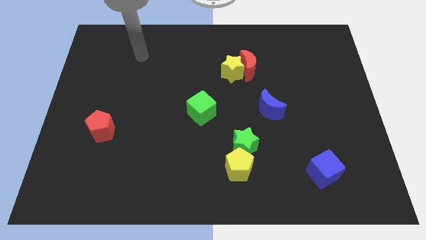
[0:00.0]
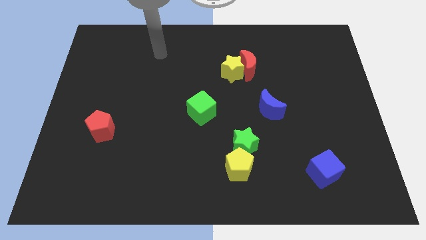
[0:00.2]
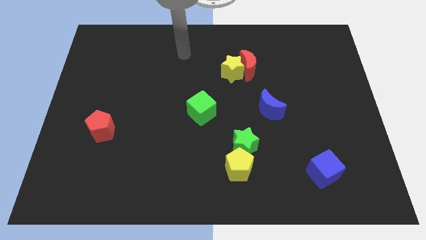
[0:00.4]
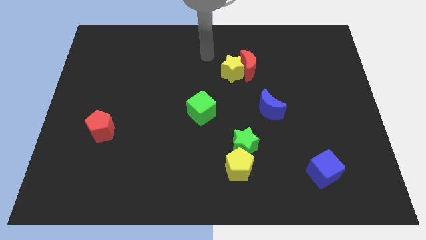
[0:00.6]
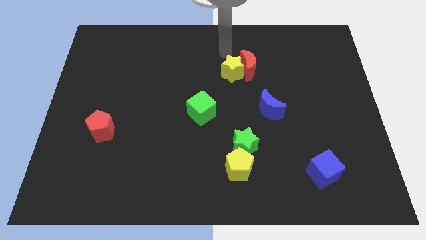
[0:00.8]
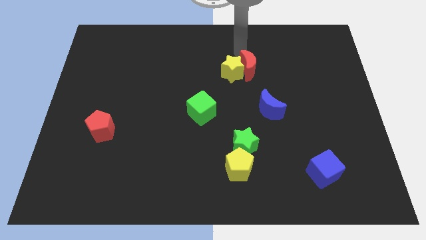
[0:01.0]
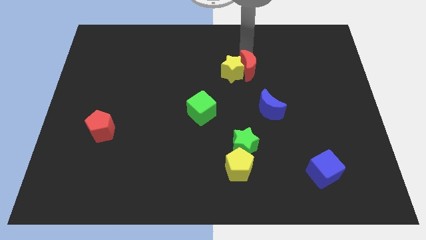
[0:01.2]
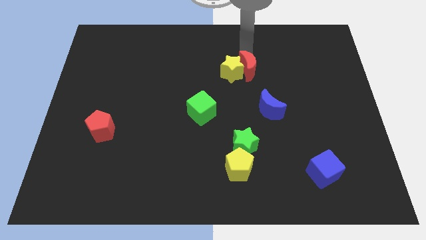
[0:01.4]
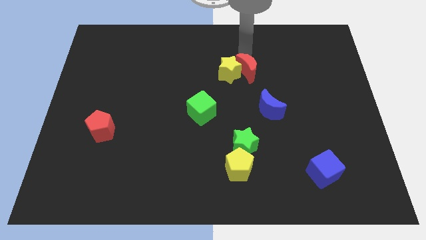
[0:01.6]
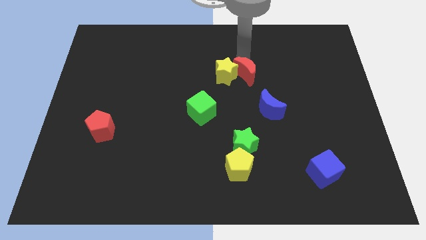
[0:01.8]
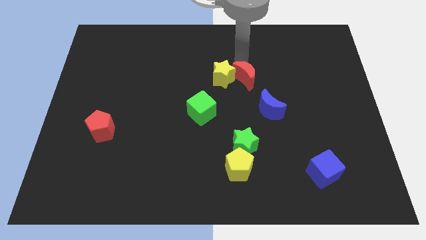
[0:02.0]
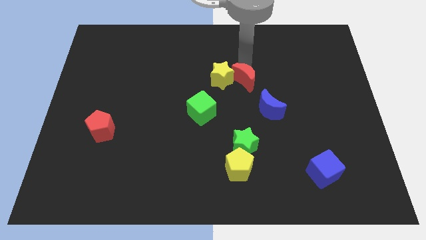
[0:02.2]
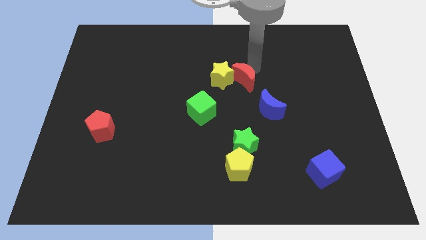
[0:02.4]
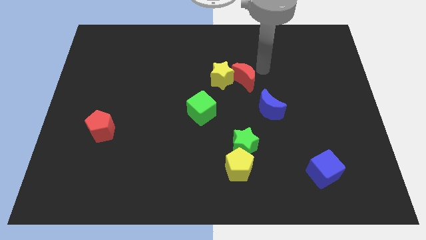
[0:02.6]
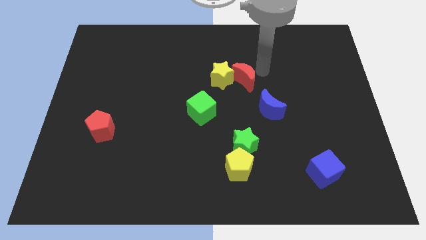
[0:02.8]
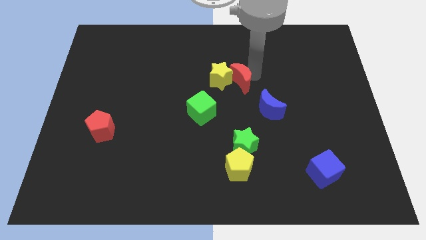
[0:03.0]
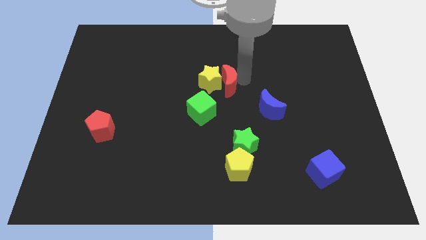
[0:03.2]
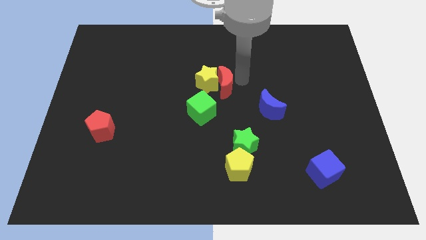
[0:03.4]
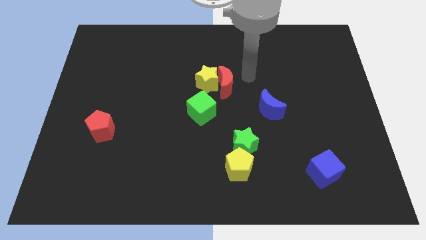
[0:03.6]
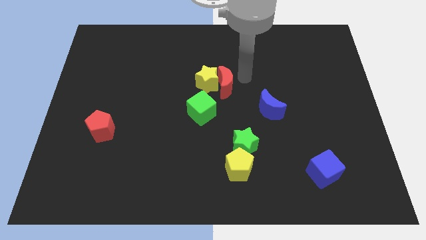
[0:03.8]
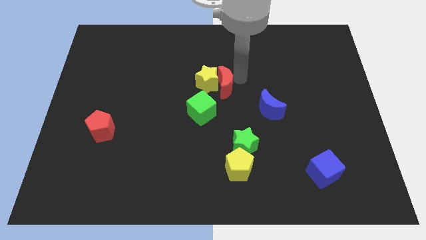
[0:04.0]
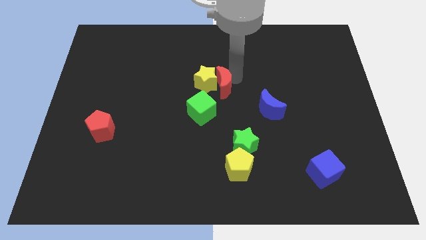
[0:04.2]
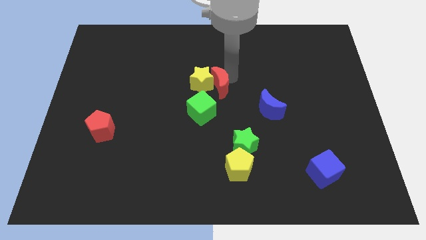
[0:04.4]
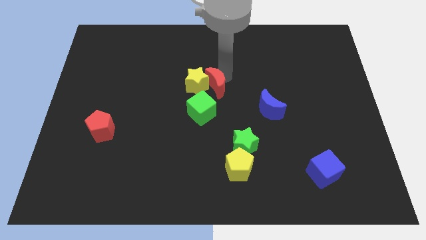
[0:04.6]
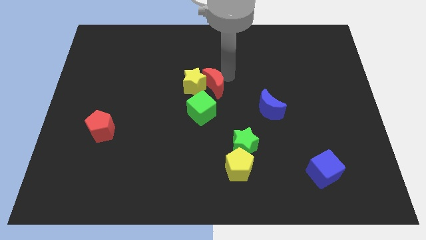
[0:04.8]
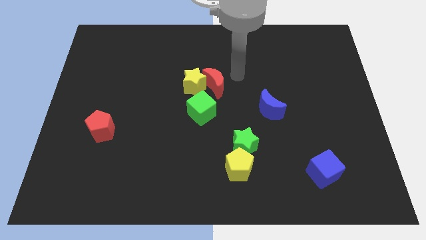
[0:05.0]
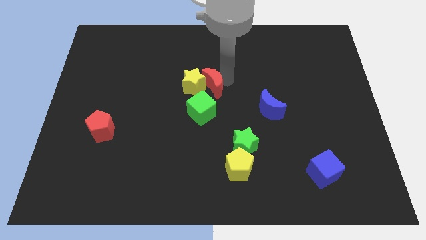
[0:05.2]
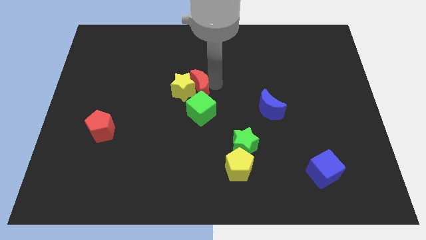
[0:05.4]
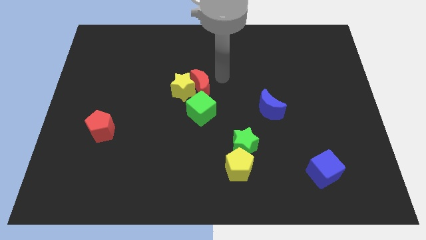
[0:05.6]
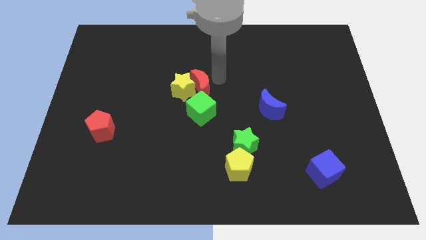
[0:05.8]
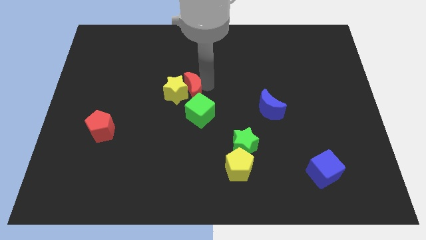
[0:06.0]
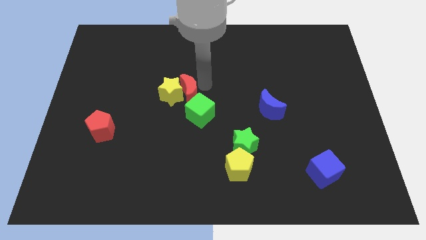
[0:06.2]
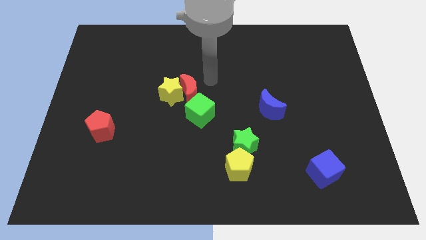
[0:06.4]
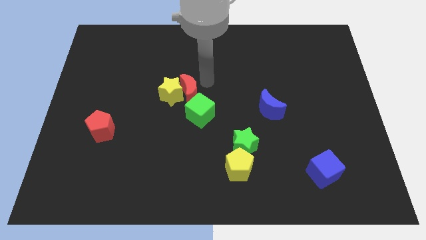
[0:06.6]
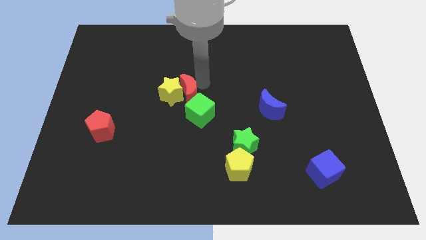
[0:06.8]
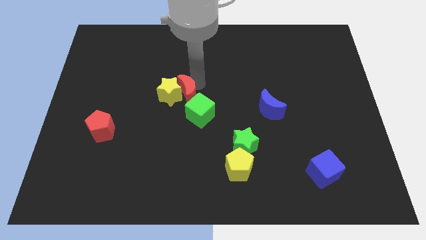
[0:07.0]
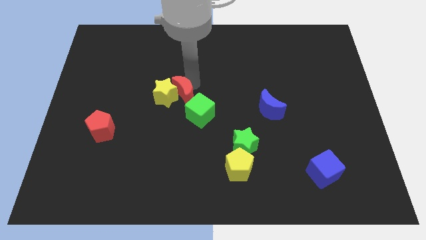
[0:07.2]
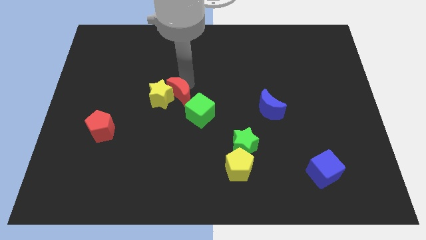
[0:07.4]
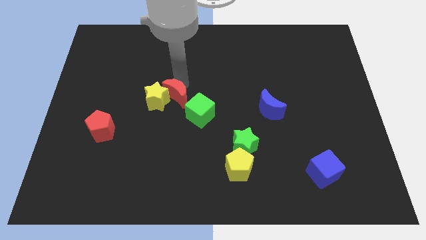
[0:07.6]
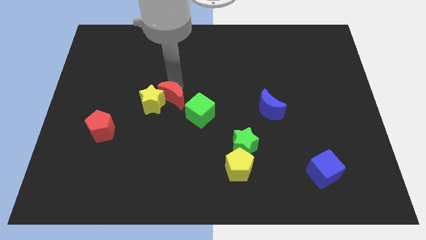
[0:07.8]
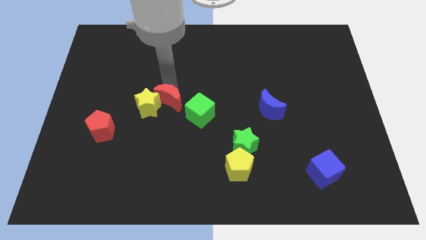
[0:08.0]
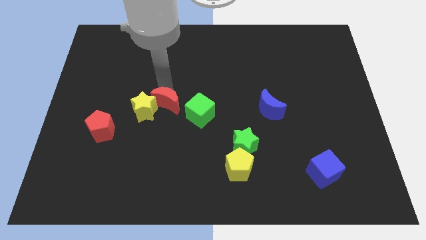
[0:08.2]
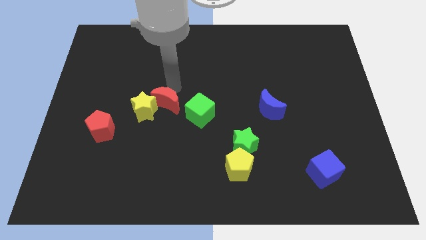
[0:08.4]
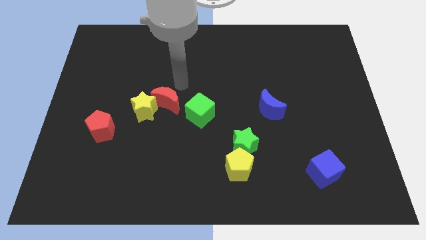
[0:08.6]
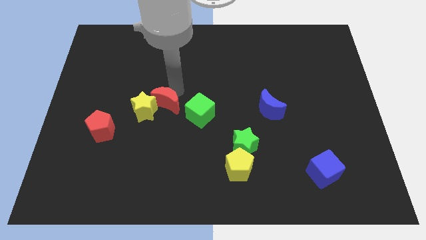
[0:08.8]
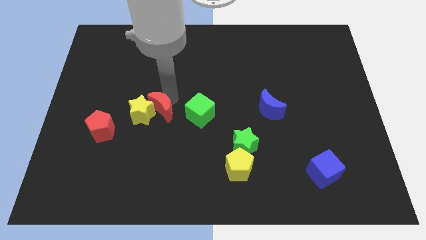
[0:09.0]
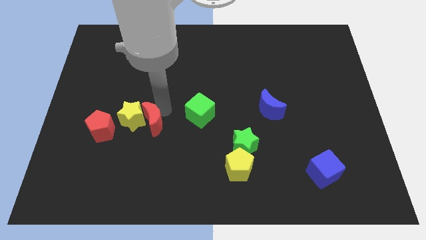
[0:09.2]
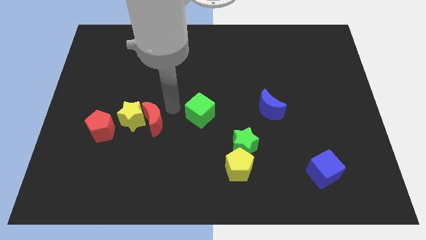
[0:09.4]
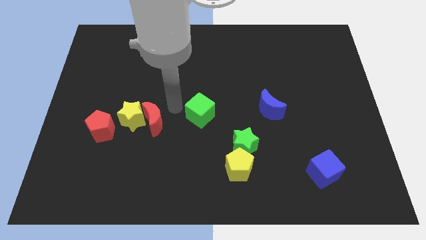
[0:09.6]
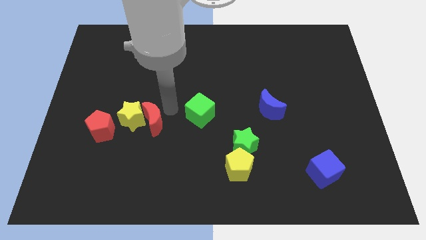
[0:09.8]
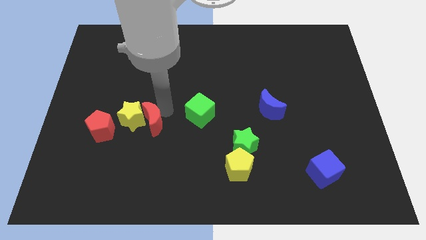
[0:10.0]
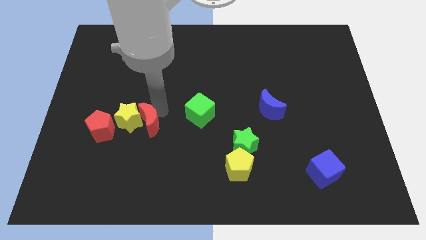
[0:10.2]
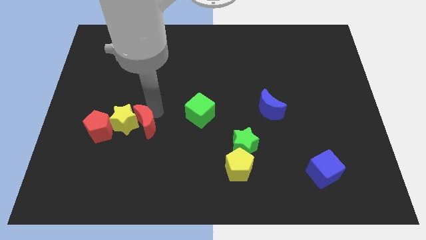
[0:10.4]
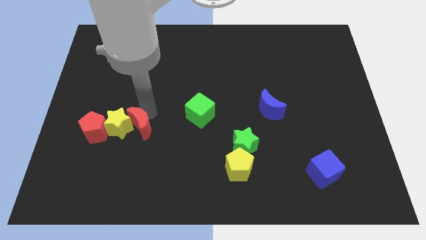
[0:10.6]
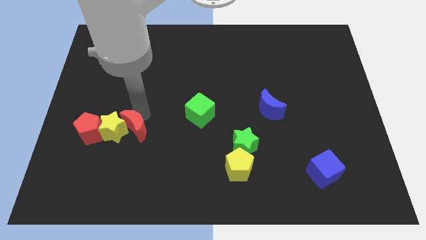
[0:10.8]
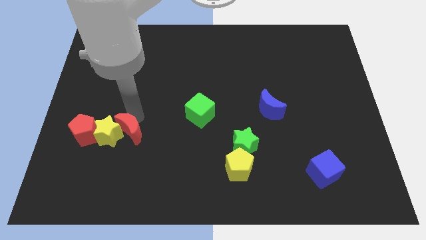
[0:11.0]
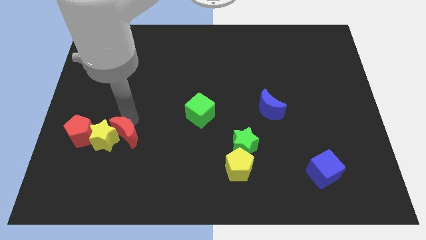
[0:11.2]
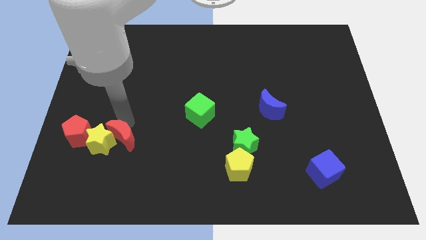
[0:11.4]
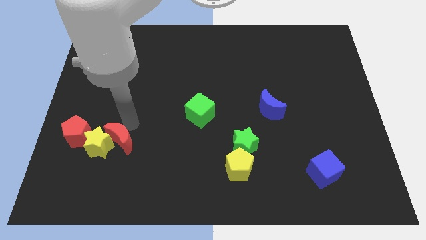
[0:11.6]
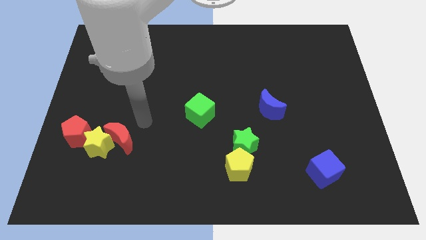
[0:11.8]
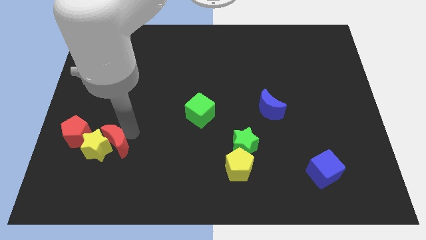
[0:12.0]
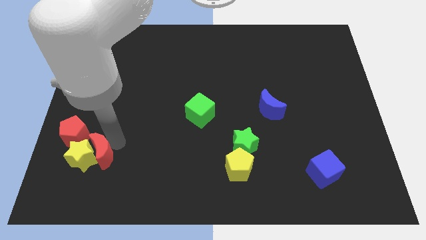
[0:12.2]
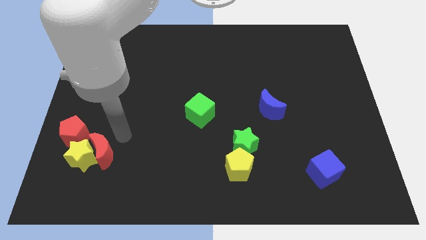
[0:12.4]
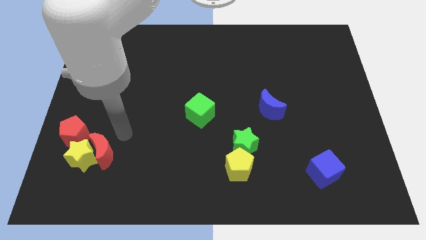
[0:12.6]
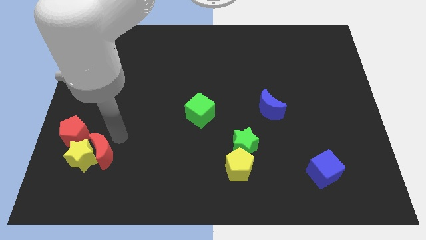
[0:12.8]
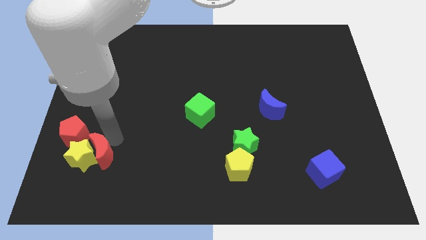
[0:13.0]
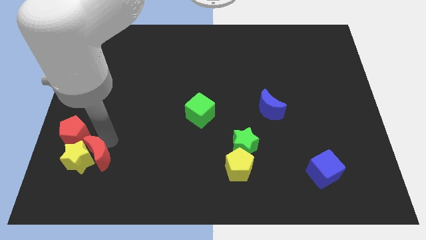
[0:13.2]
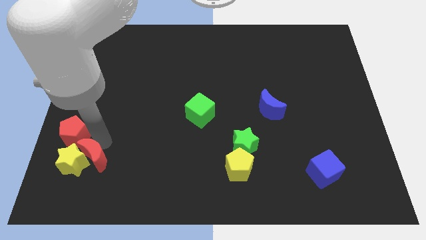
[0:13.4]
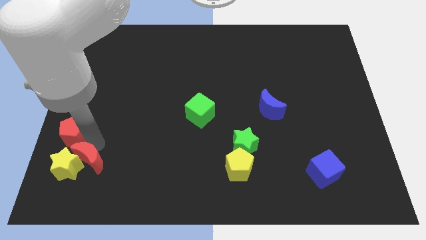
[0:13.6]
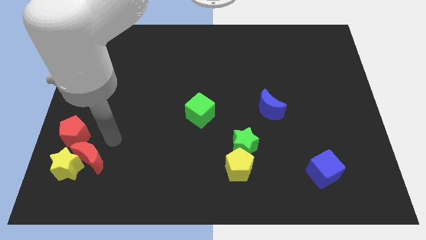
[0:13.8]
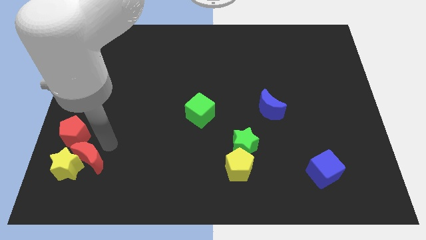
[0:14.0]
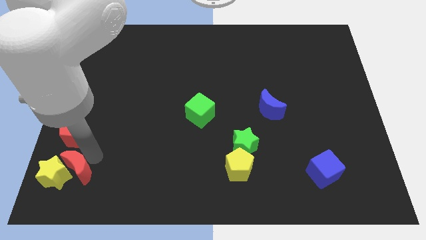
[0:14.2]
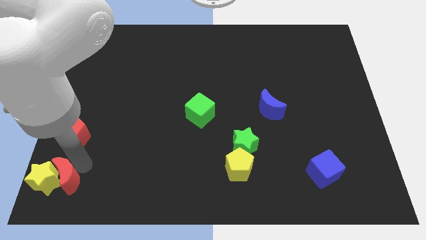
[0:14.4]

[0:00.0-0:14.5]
move the red moon to the lower left corner
